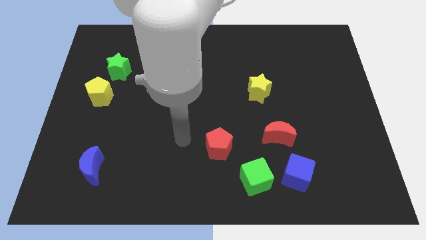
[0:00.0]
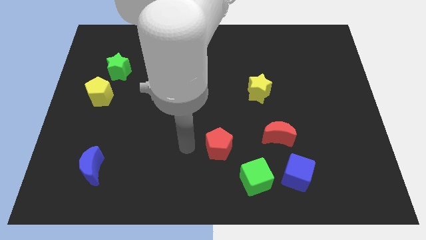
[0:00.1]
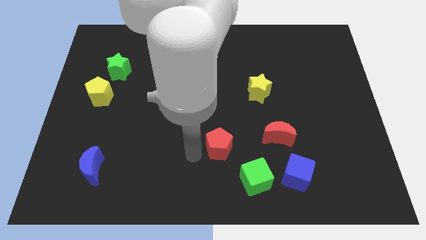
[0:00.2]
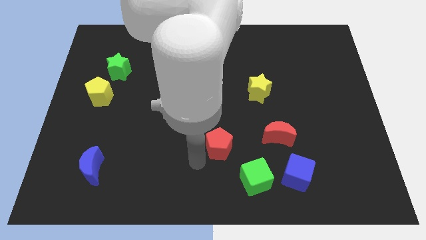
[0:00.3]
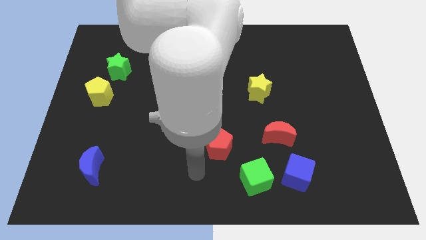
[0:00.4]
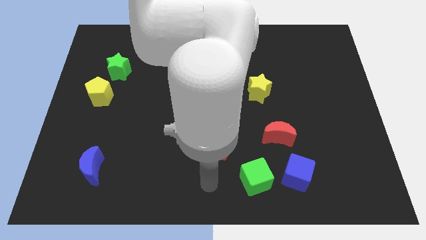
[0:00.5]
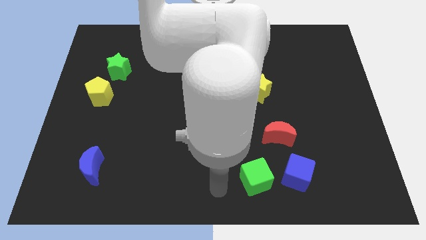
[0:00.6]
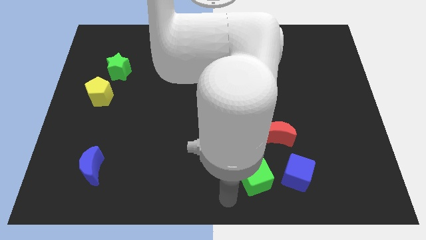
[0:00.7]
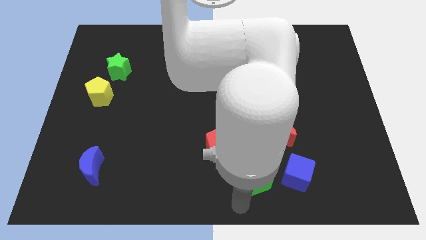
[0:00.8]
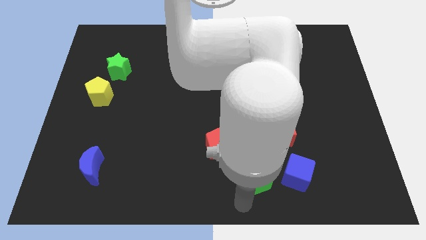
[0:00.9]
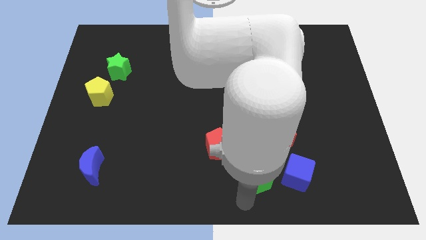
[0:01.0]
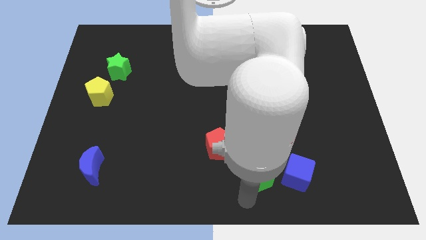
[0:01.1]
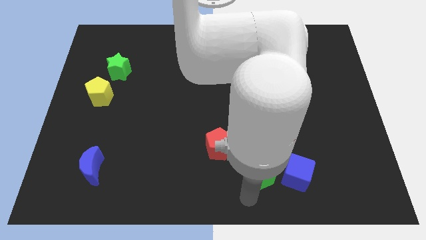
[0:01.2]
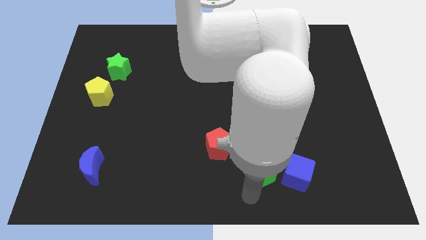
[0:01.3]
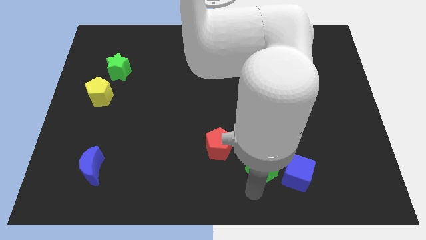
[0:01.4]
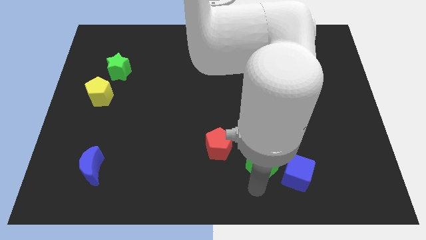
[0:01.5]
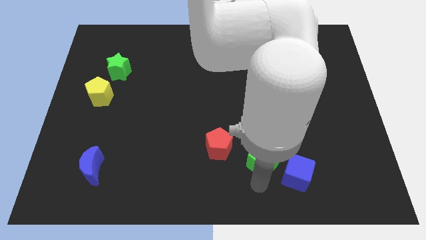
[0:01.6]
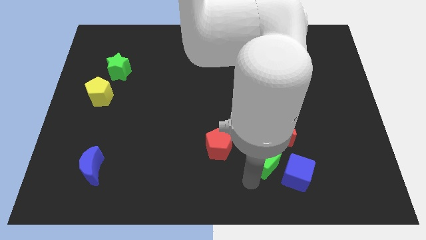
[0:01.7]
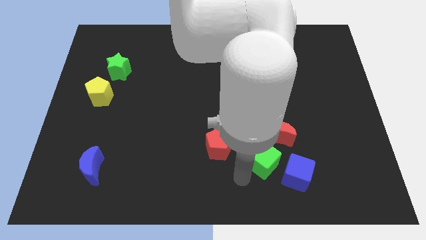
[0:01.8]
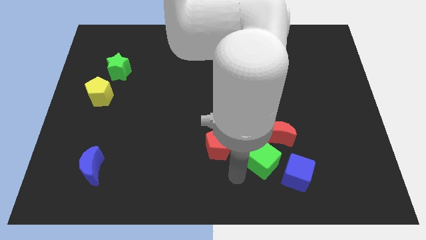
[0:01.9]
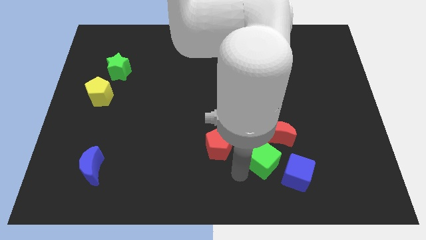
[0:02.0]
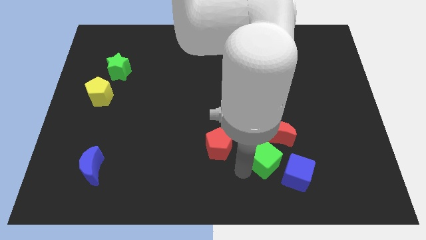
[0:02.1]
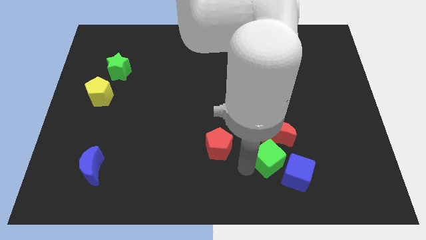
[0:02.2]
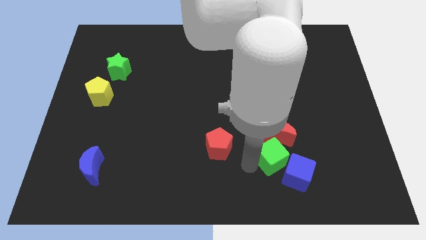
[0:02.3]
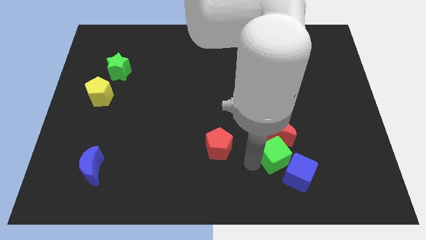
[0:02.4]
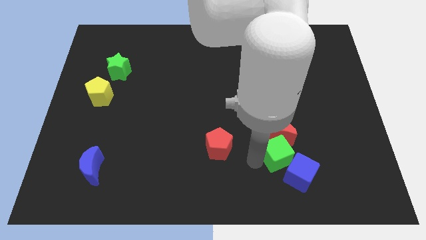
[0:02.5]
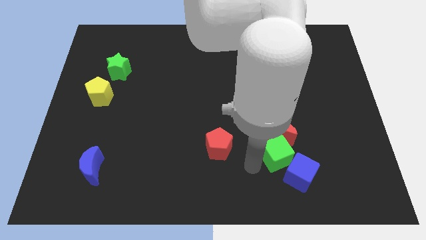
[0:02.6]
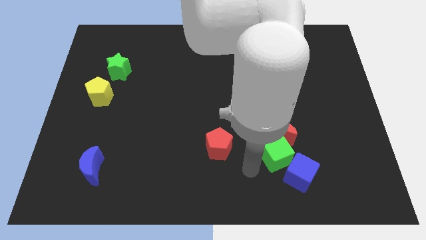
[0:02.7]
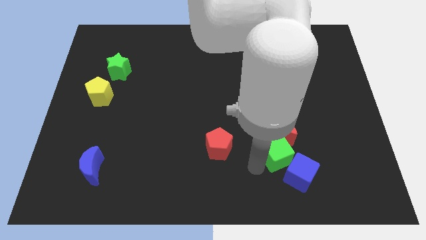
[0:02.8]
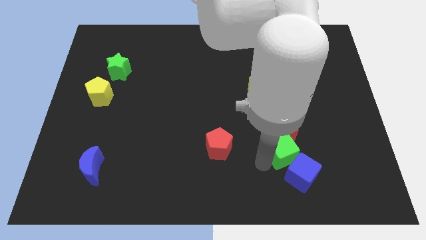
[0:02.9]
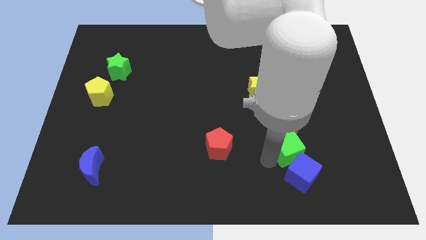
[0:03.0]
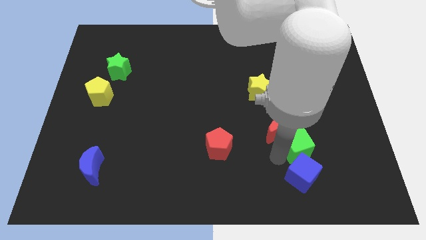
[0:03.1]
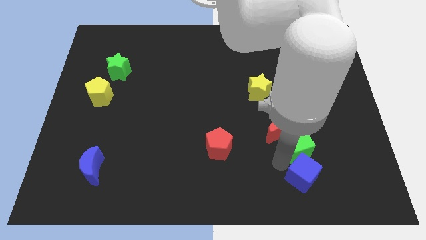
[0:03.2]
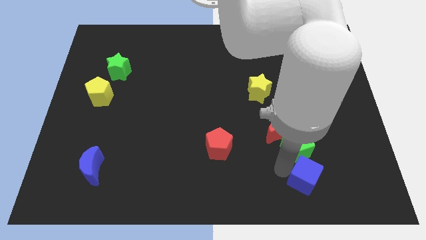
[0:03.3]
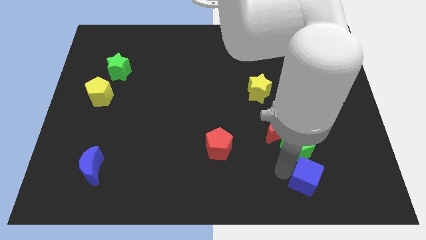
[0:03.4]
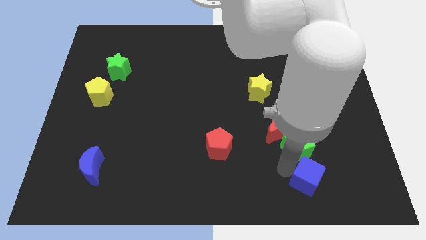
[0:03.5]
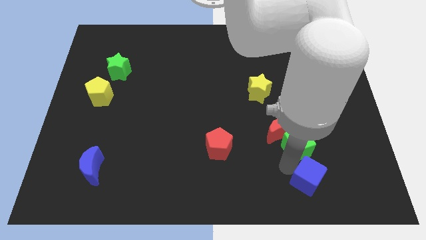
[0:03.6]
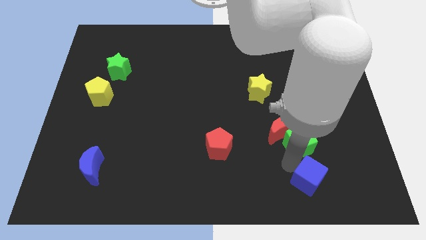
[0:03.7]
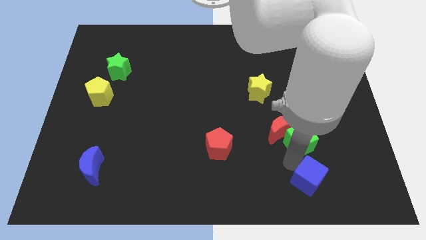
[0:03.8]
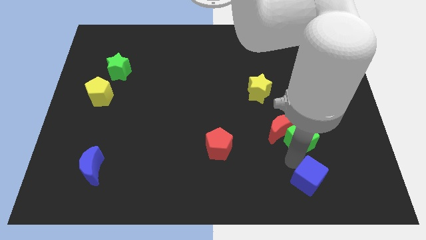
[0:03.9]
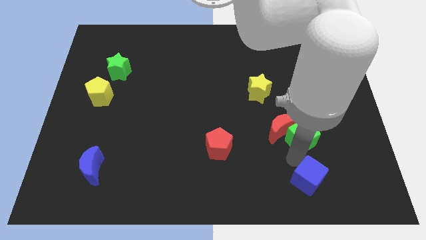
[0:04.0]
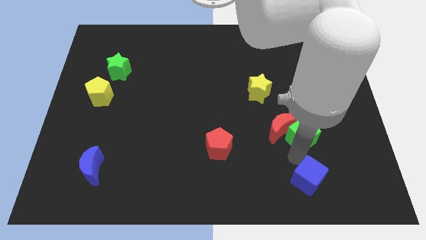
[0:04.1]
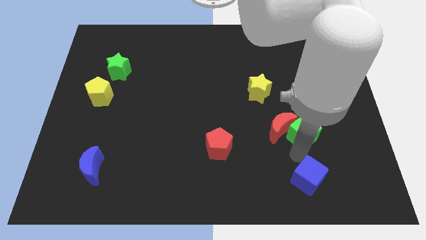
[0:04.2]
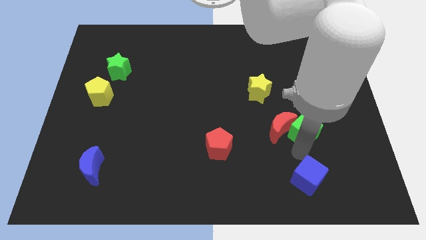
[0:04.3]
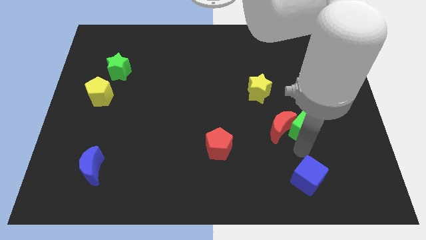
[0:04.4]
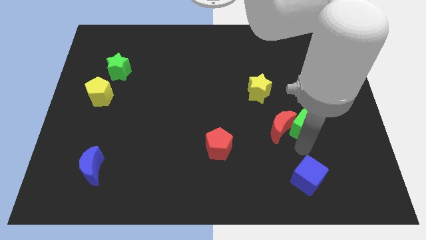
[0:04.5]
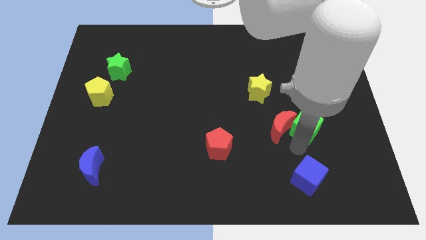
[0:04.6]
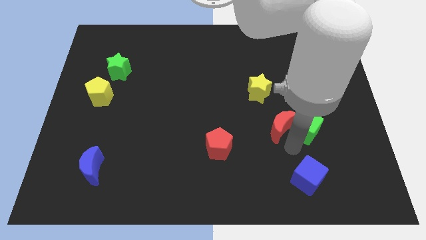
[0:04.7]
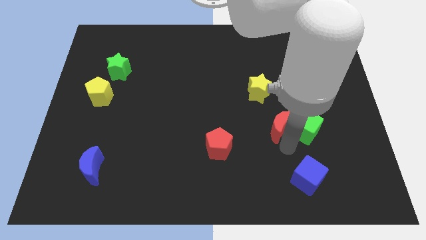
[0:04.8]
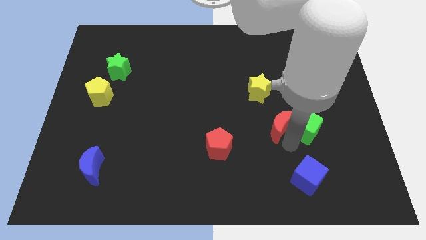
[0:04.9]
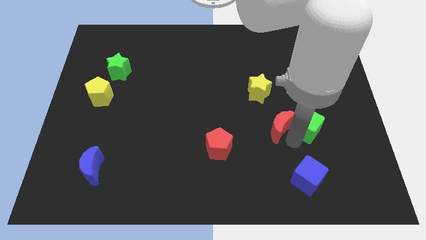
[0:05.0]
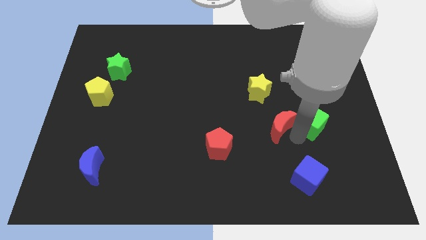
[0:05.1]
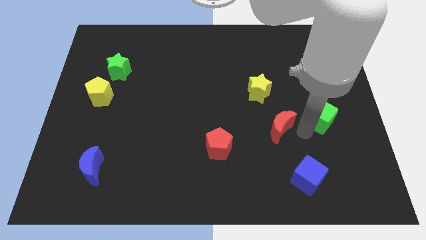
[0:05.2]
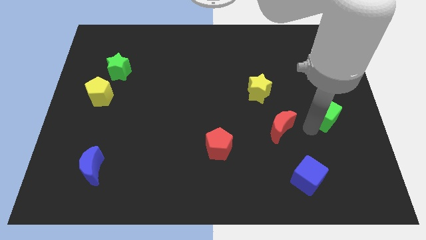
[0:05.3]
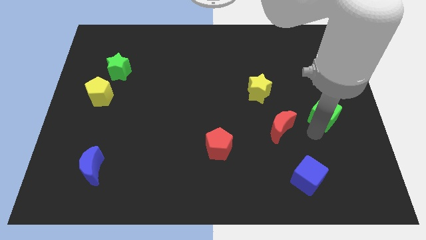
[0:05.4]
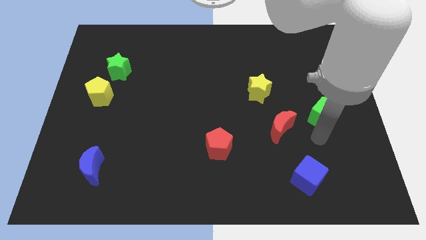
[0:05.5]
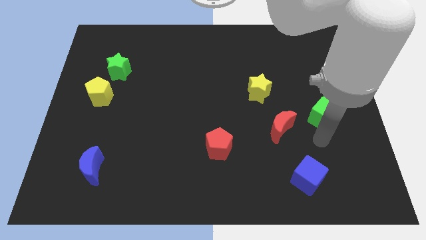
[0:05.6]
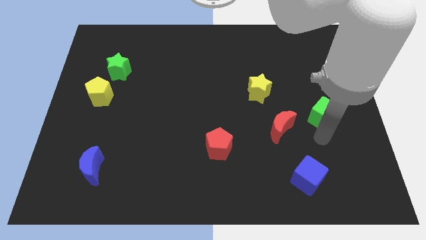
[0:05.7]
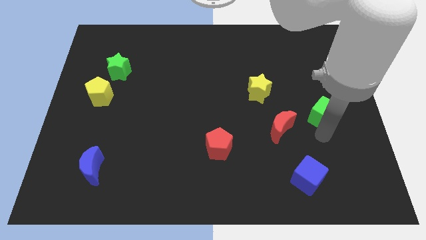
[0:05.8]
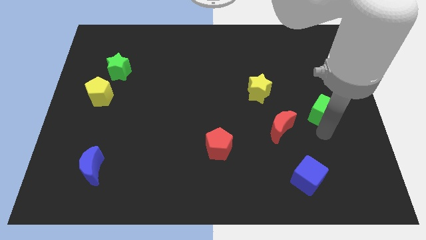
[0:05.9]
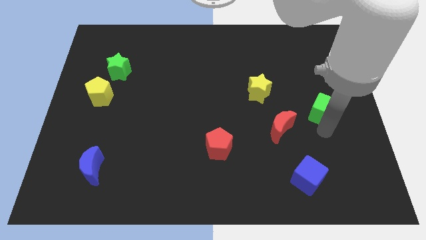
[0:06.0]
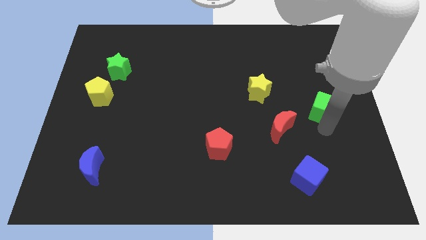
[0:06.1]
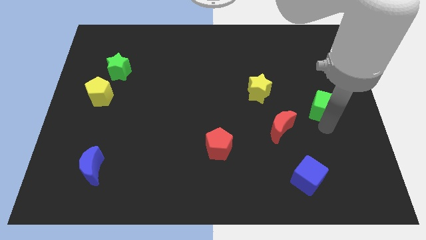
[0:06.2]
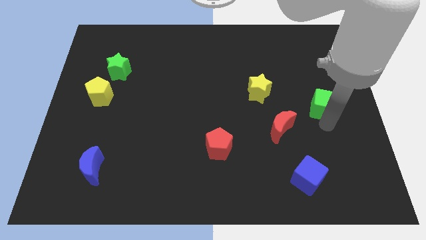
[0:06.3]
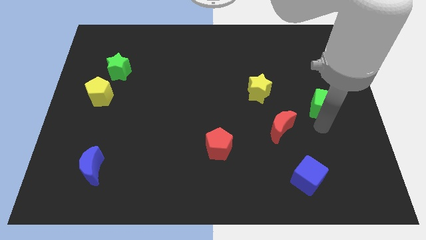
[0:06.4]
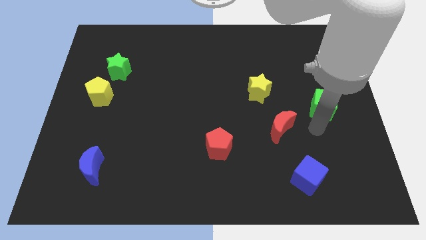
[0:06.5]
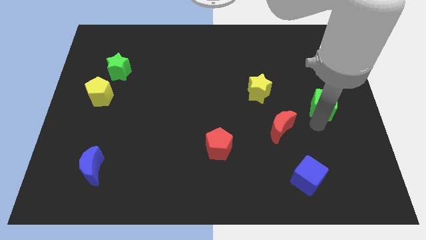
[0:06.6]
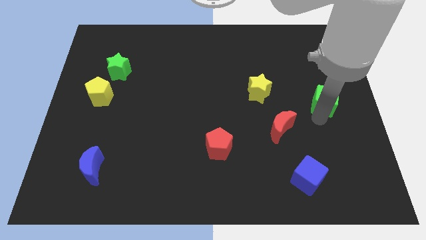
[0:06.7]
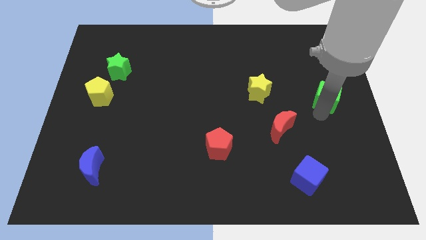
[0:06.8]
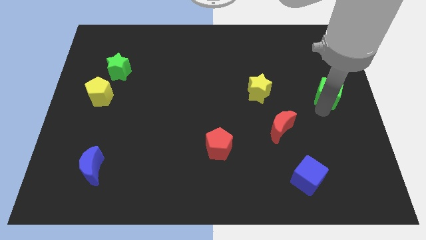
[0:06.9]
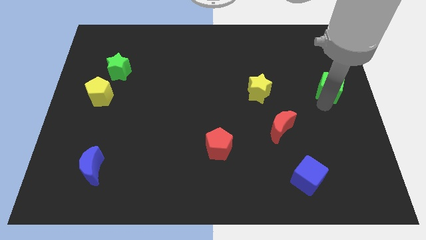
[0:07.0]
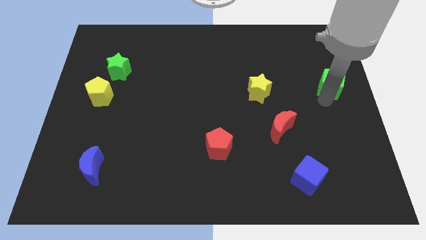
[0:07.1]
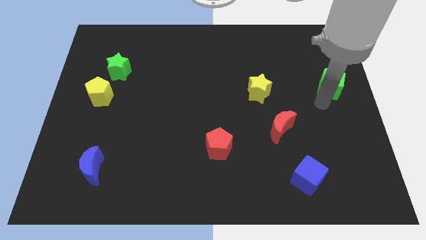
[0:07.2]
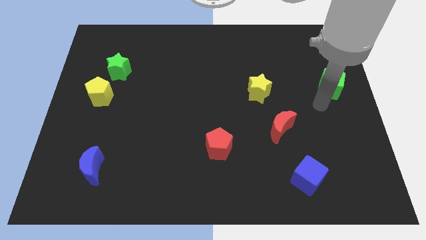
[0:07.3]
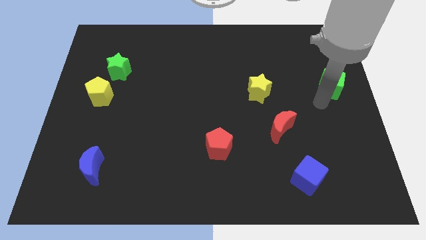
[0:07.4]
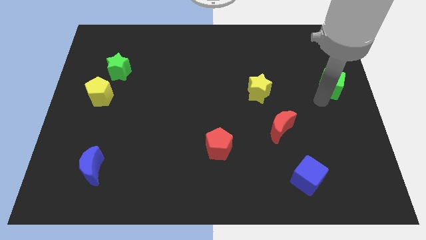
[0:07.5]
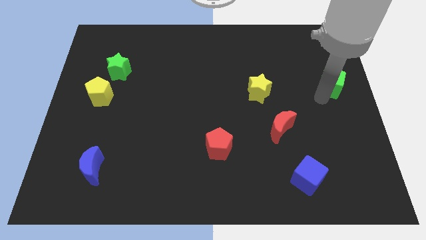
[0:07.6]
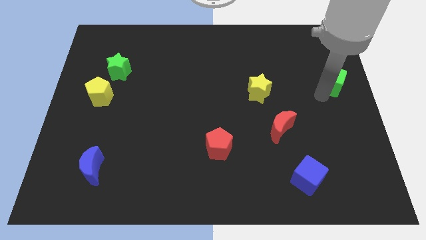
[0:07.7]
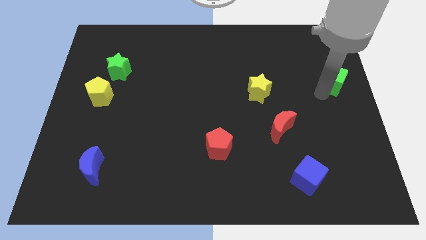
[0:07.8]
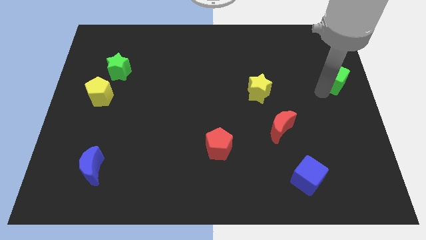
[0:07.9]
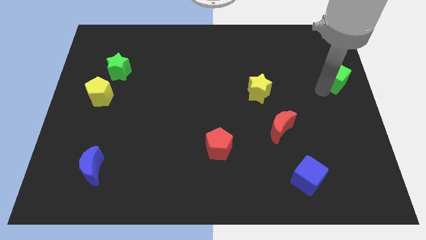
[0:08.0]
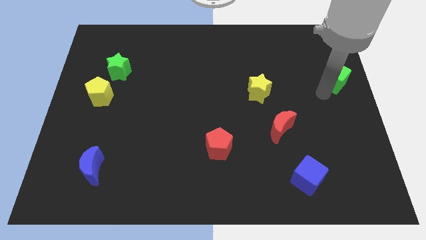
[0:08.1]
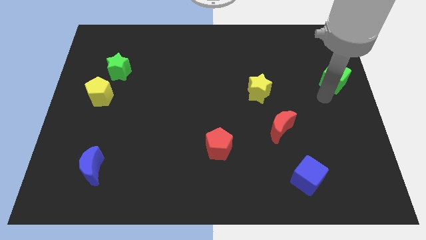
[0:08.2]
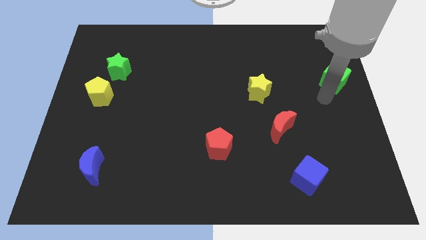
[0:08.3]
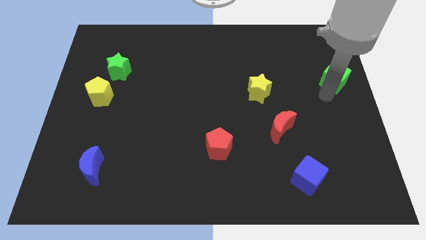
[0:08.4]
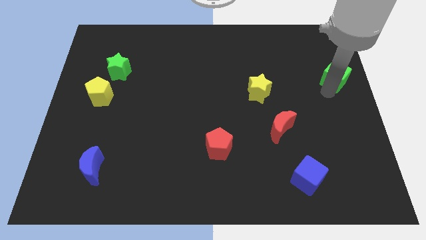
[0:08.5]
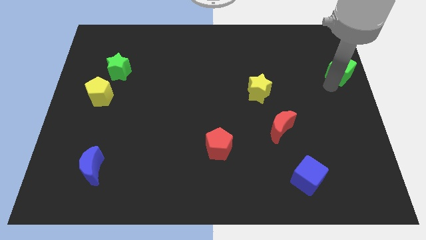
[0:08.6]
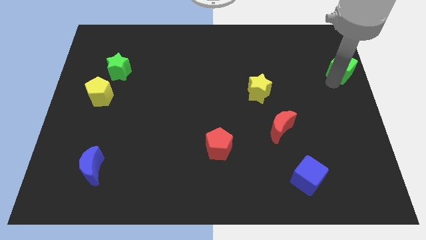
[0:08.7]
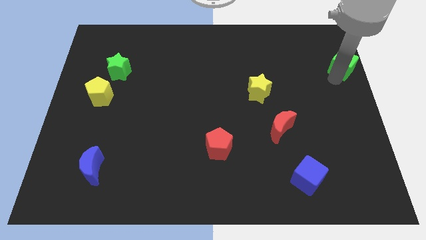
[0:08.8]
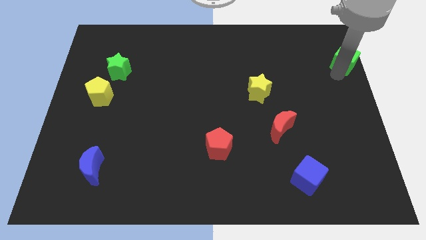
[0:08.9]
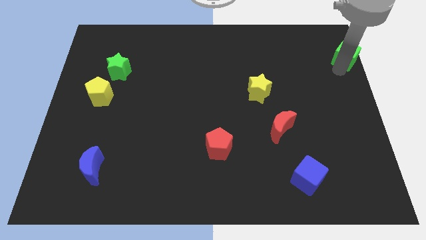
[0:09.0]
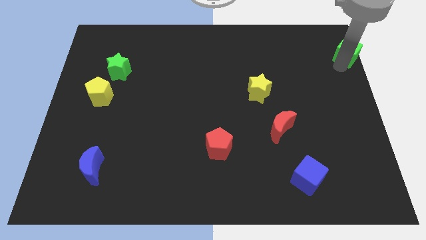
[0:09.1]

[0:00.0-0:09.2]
move the green cube to the upper right corner
